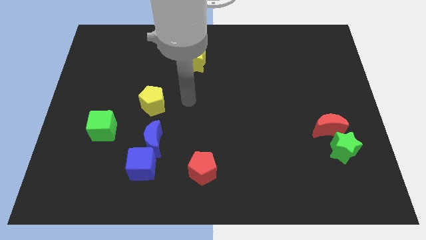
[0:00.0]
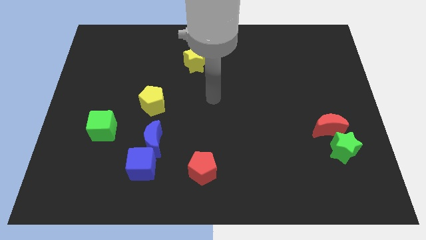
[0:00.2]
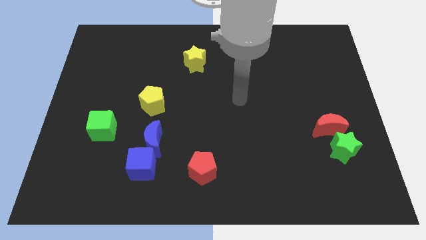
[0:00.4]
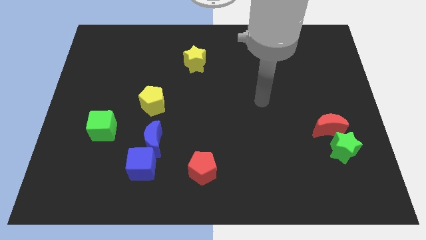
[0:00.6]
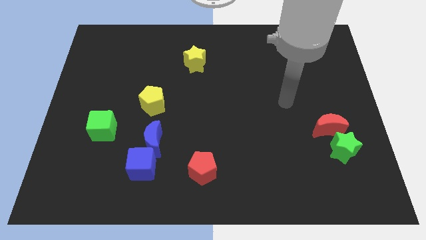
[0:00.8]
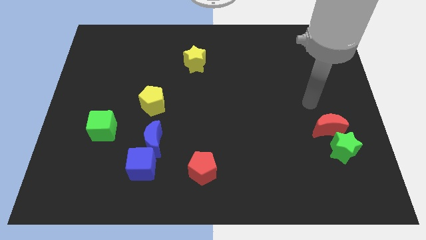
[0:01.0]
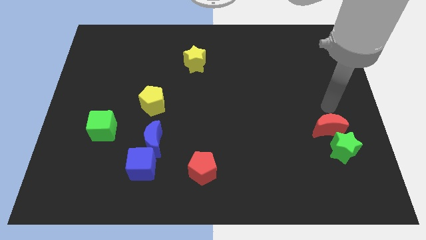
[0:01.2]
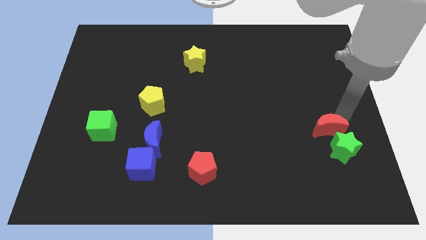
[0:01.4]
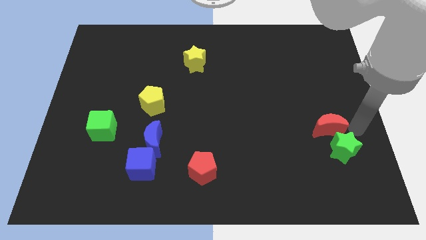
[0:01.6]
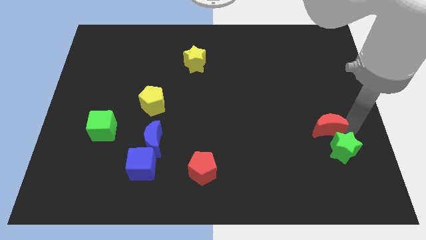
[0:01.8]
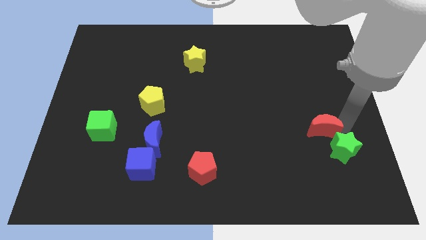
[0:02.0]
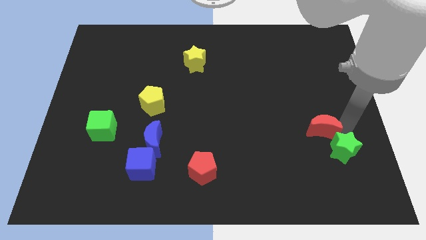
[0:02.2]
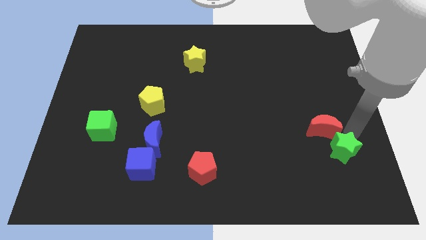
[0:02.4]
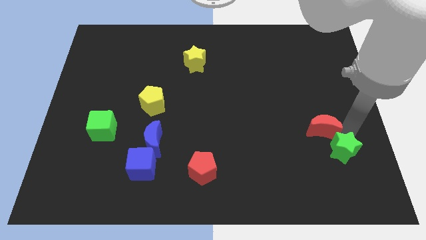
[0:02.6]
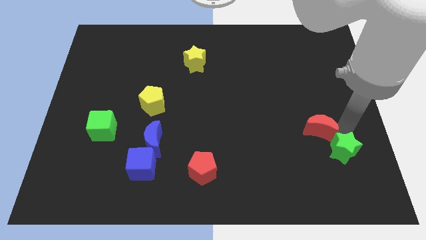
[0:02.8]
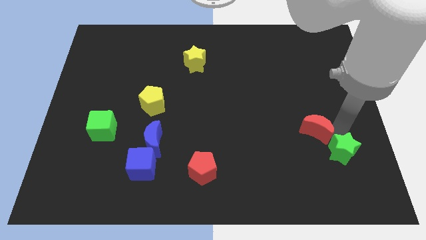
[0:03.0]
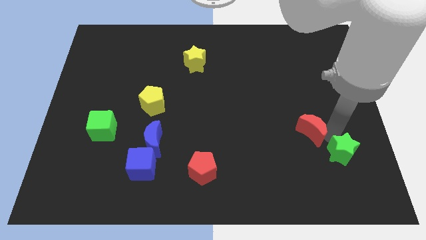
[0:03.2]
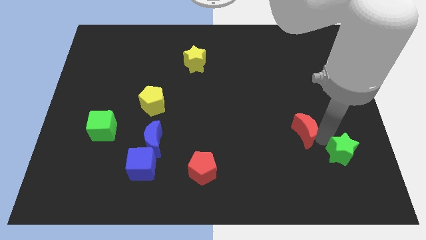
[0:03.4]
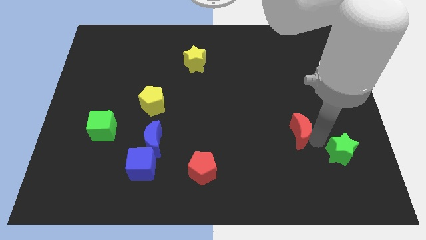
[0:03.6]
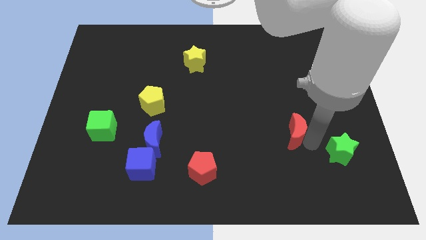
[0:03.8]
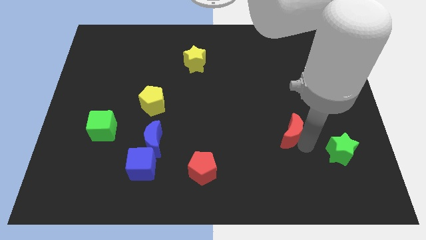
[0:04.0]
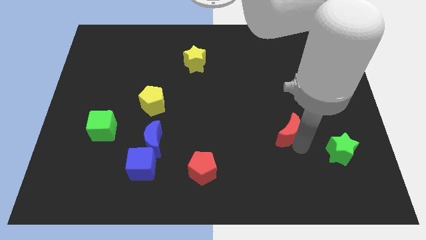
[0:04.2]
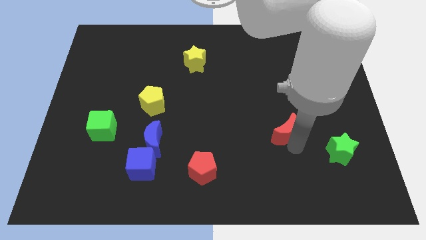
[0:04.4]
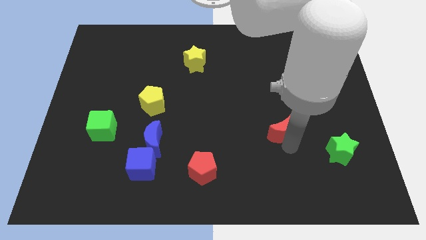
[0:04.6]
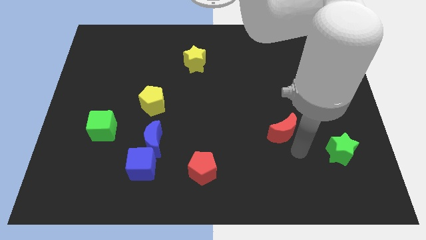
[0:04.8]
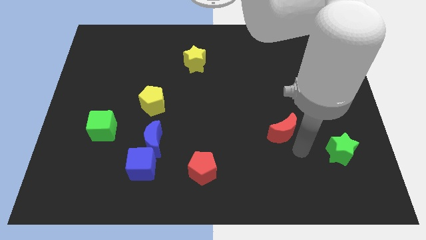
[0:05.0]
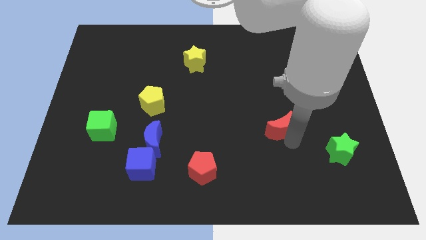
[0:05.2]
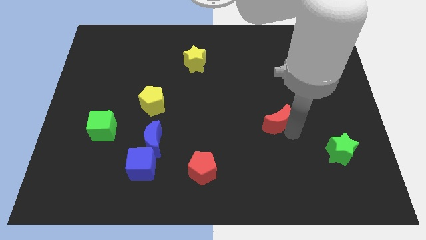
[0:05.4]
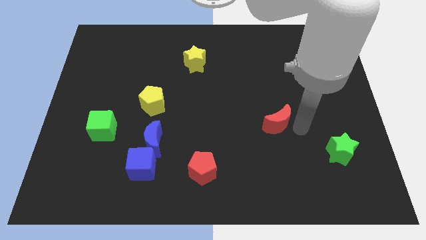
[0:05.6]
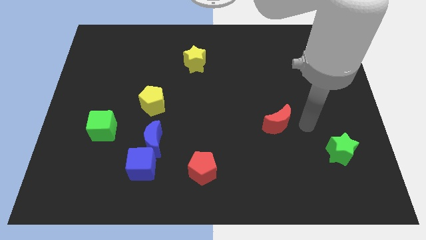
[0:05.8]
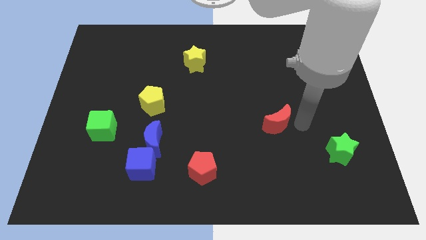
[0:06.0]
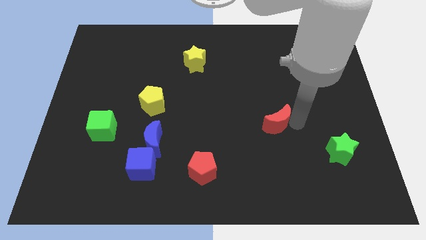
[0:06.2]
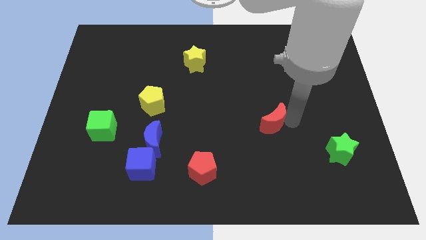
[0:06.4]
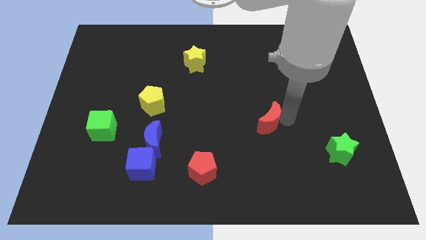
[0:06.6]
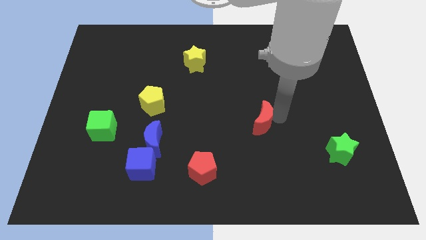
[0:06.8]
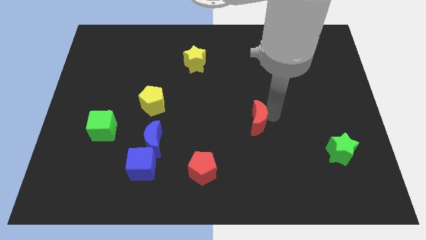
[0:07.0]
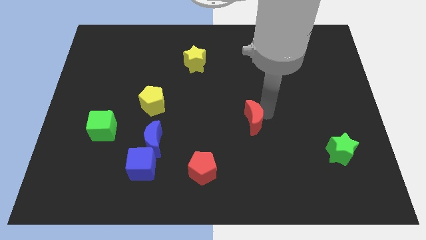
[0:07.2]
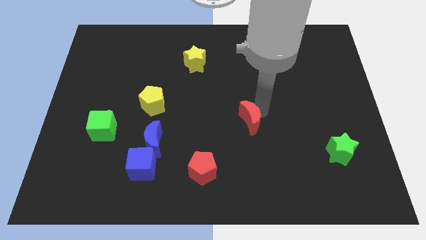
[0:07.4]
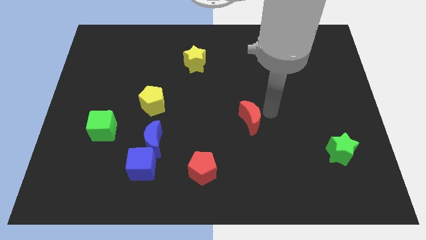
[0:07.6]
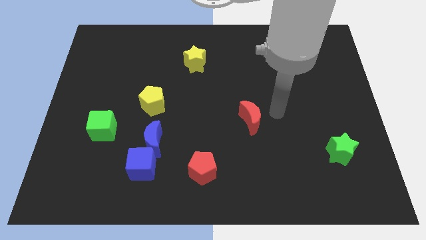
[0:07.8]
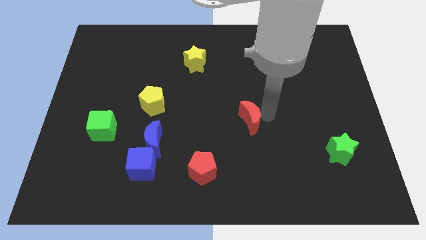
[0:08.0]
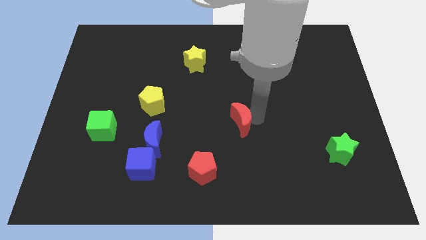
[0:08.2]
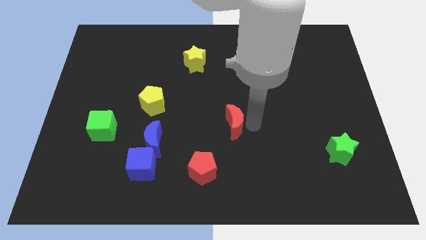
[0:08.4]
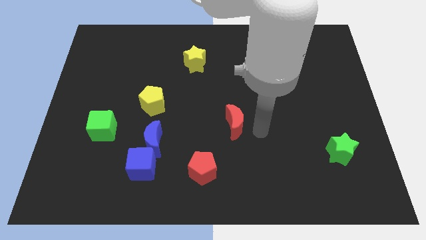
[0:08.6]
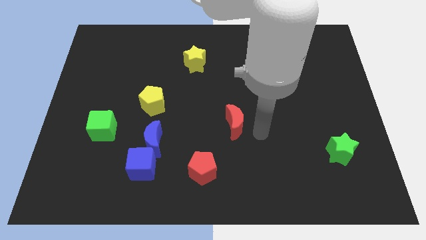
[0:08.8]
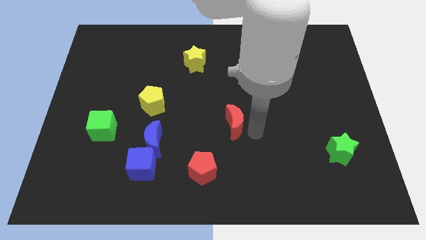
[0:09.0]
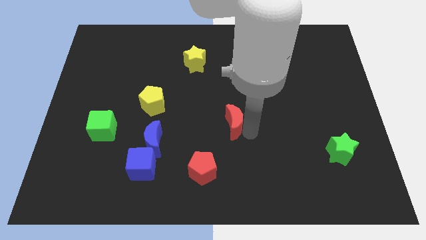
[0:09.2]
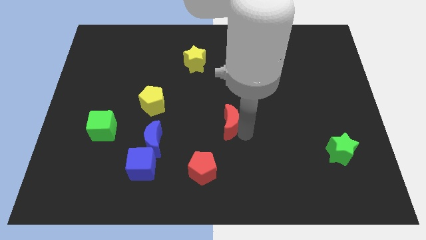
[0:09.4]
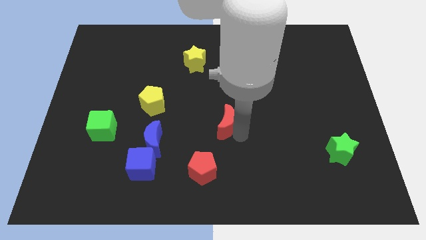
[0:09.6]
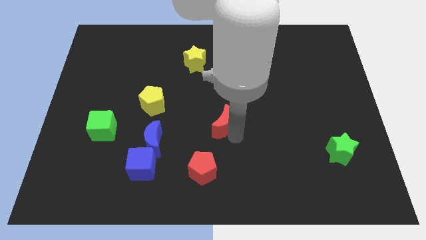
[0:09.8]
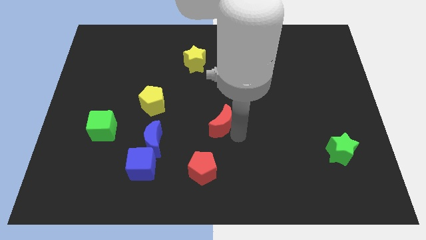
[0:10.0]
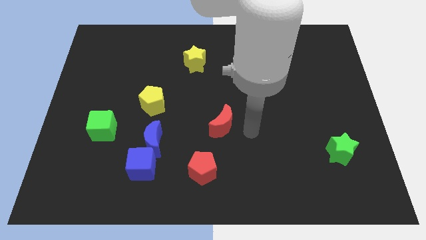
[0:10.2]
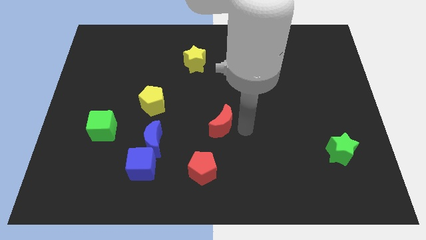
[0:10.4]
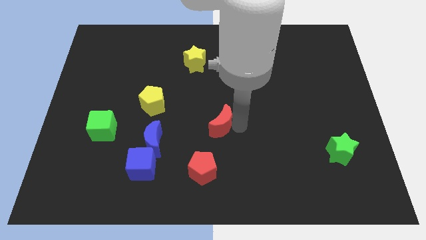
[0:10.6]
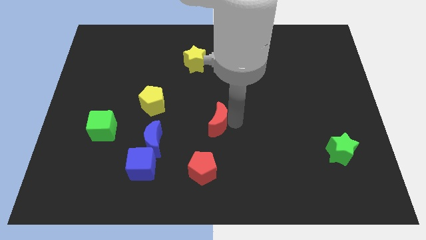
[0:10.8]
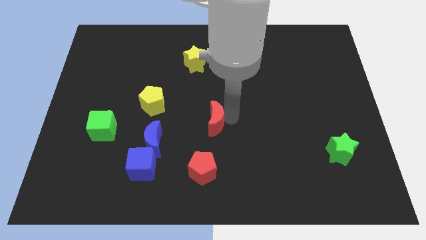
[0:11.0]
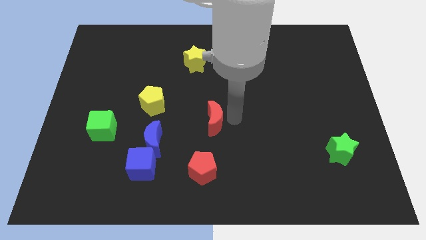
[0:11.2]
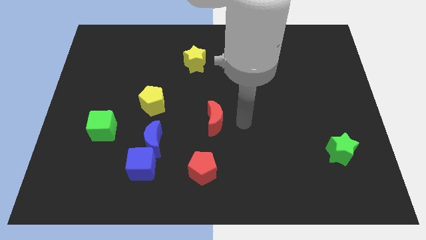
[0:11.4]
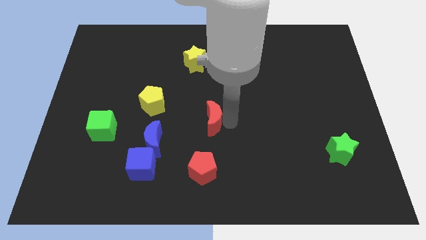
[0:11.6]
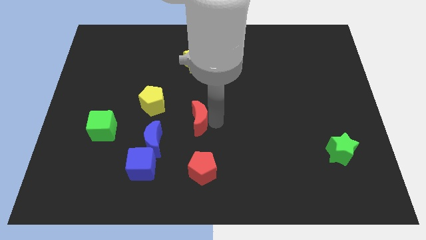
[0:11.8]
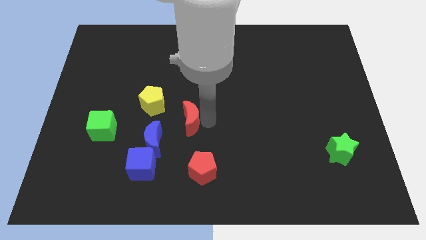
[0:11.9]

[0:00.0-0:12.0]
push the red moon diagonally down and to the right of the yellow pentagon

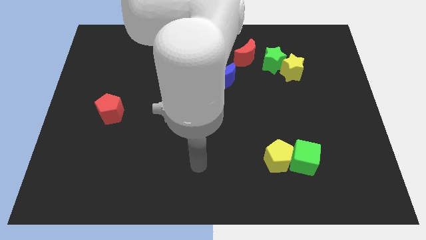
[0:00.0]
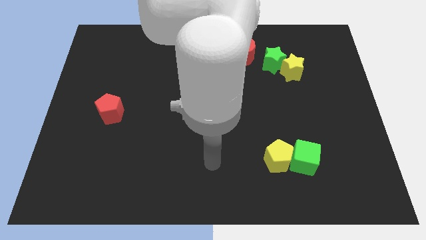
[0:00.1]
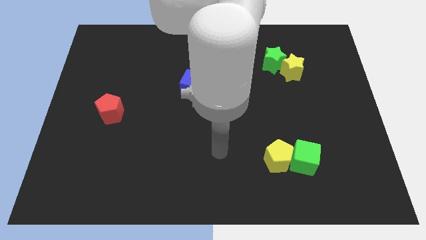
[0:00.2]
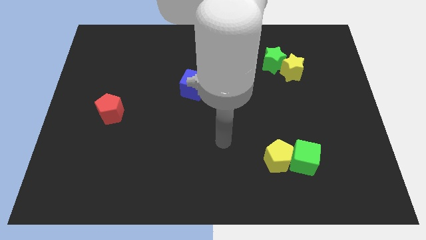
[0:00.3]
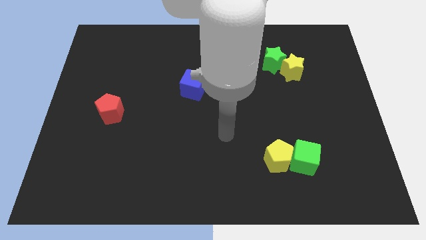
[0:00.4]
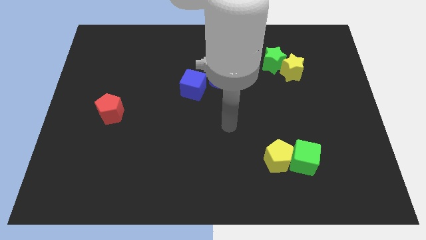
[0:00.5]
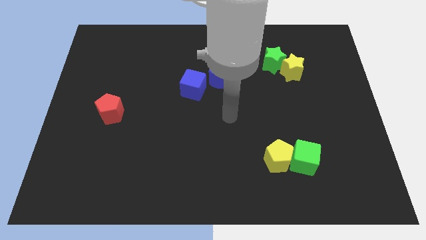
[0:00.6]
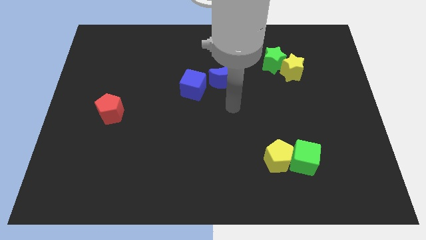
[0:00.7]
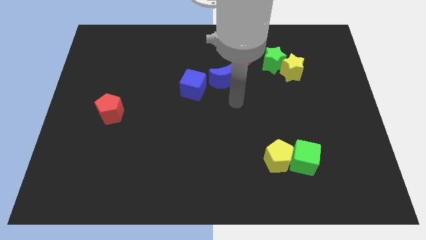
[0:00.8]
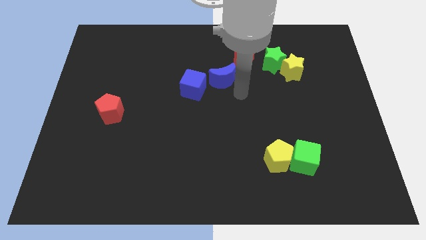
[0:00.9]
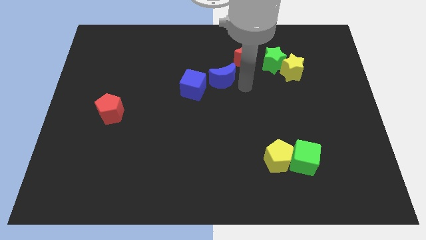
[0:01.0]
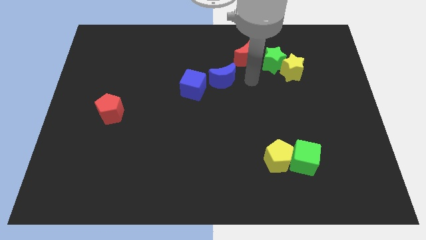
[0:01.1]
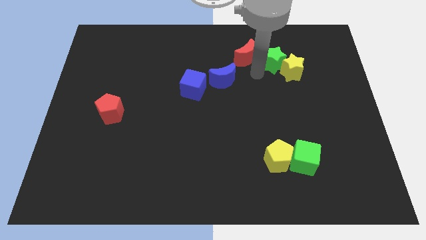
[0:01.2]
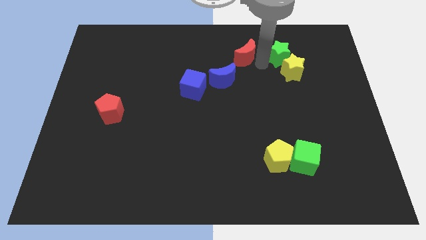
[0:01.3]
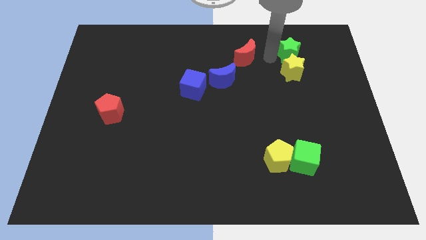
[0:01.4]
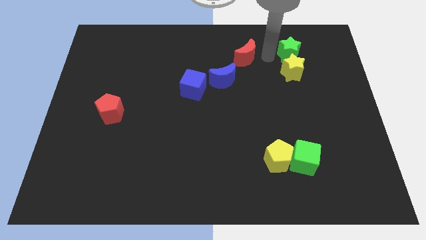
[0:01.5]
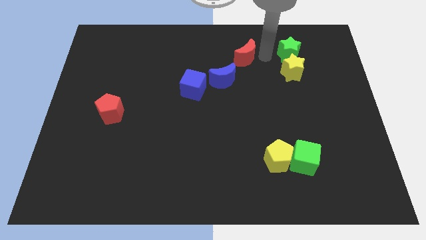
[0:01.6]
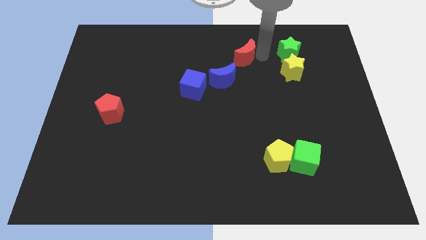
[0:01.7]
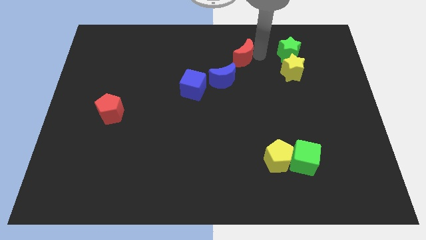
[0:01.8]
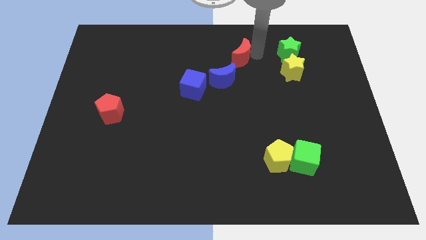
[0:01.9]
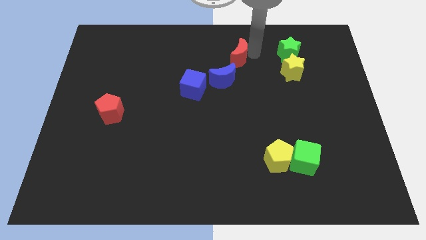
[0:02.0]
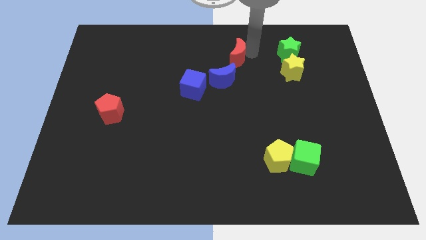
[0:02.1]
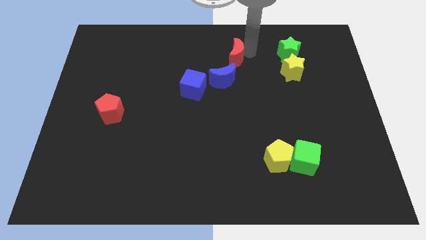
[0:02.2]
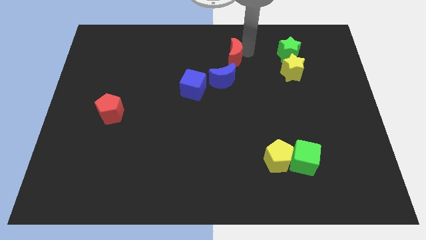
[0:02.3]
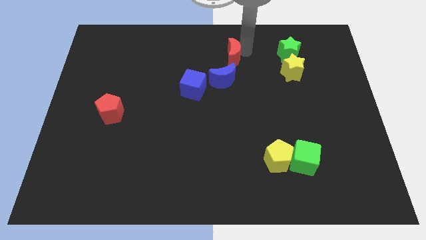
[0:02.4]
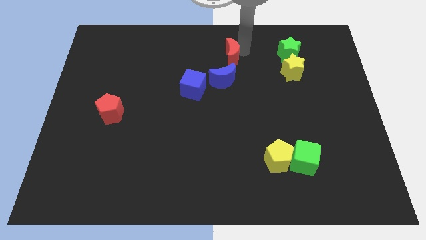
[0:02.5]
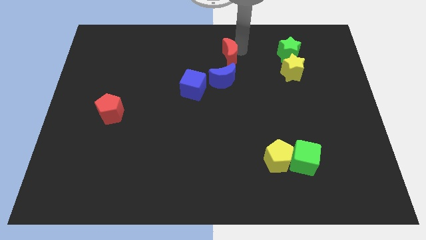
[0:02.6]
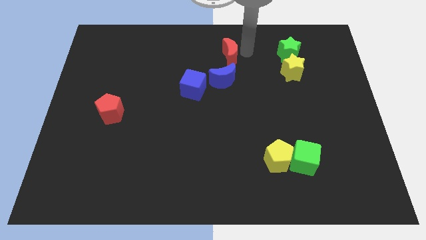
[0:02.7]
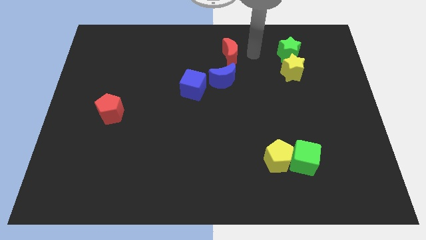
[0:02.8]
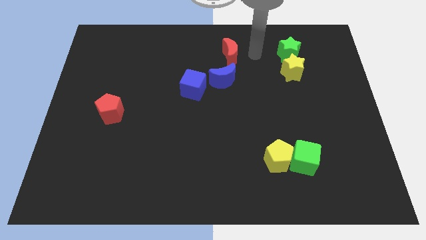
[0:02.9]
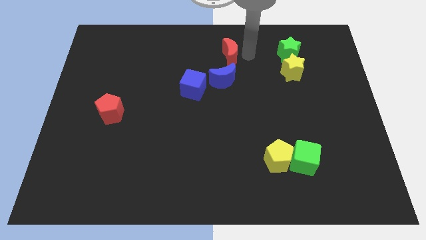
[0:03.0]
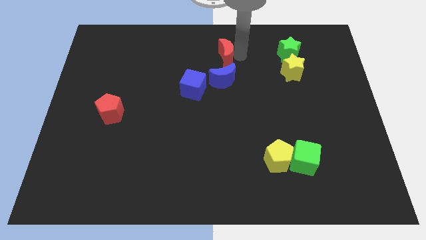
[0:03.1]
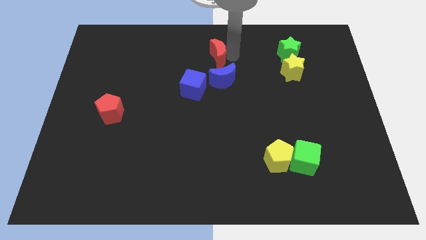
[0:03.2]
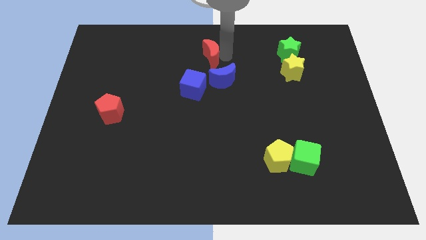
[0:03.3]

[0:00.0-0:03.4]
move the red moon to the top side of the blue cube
